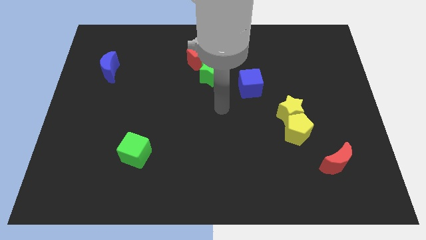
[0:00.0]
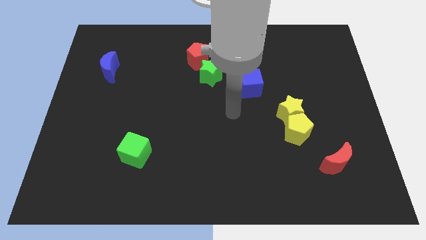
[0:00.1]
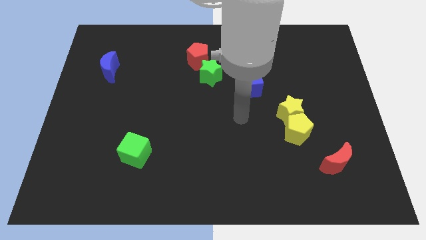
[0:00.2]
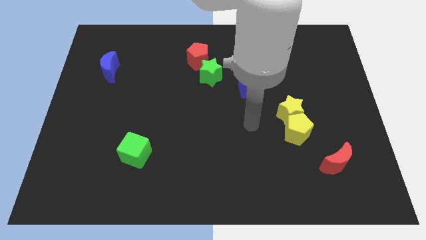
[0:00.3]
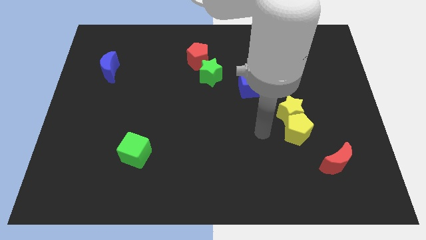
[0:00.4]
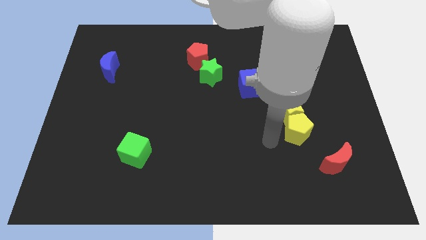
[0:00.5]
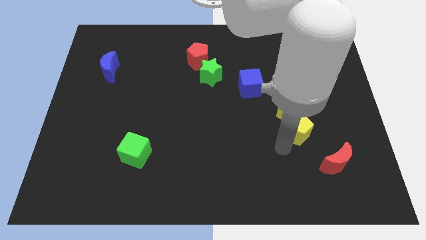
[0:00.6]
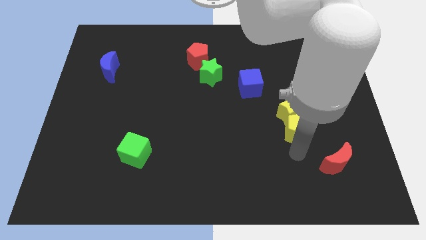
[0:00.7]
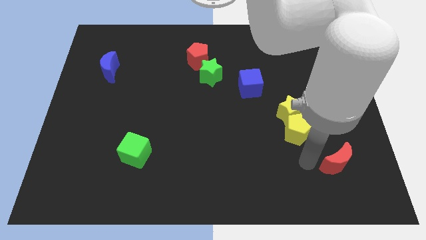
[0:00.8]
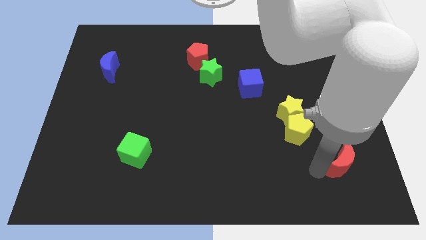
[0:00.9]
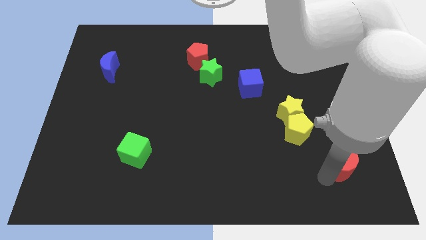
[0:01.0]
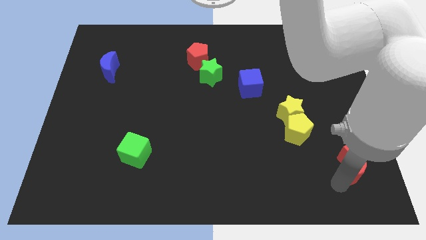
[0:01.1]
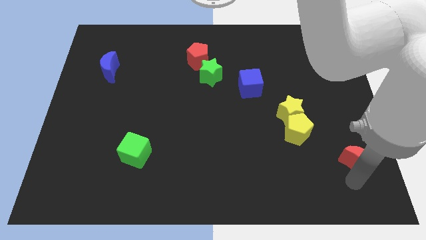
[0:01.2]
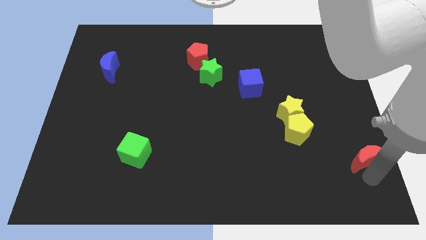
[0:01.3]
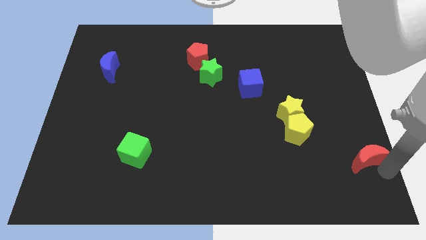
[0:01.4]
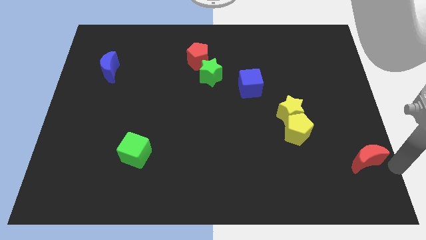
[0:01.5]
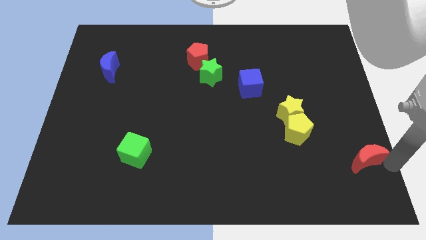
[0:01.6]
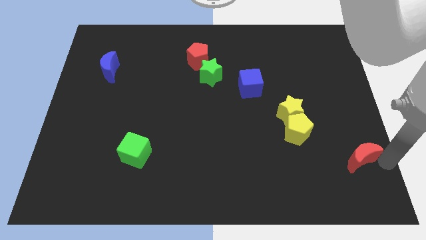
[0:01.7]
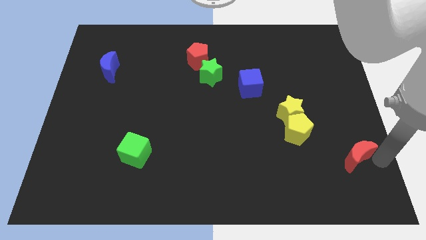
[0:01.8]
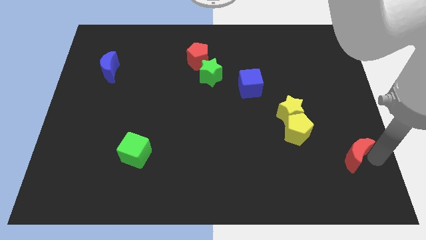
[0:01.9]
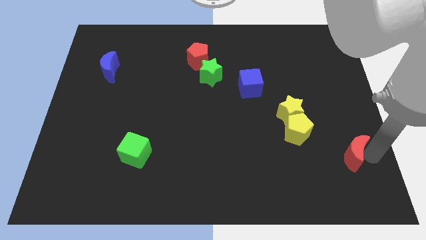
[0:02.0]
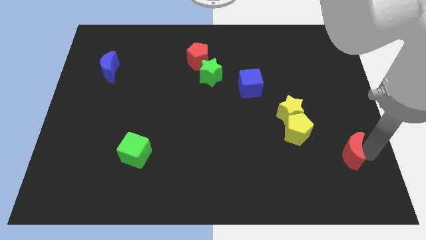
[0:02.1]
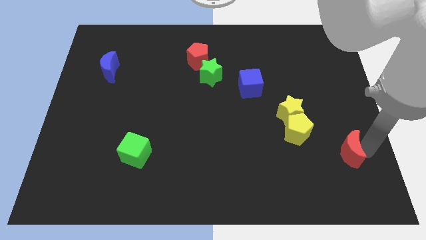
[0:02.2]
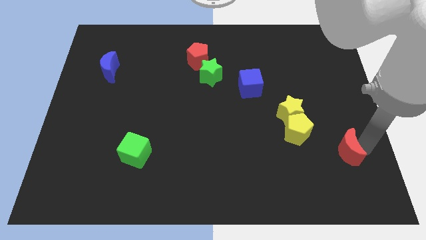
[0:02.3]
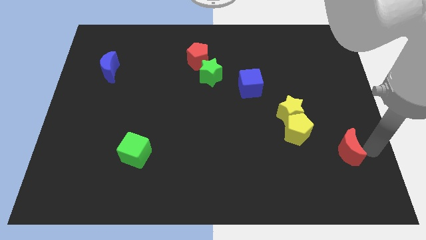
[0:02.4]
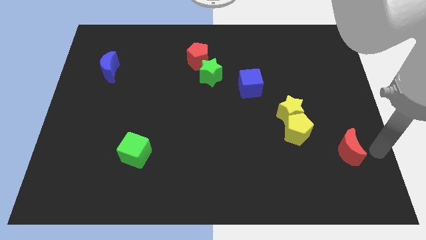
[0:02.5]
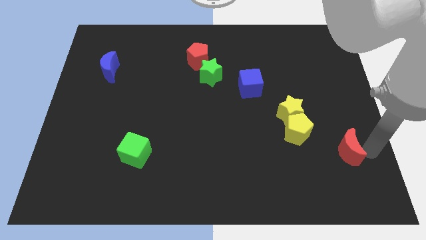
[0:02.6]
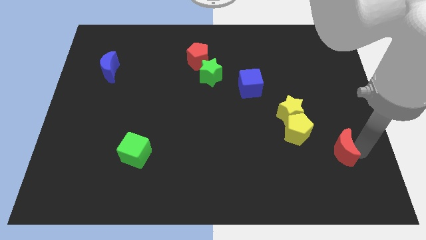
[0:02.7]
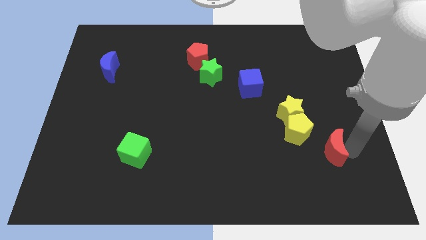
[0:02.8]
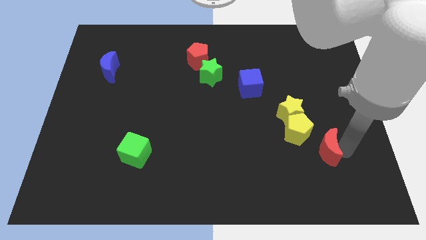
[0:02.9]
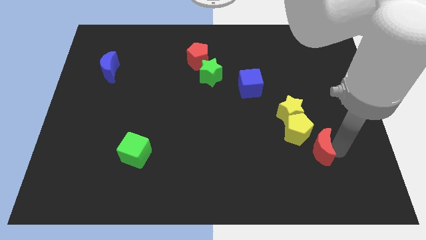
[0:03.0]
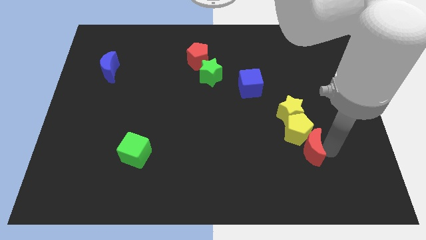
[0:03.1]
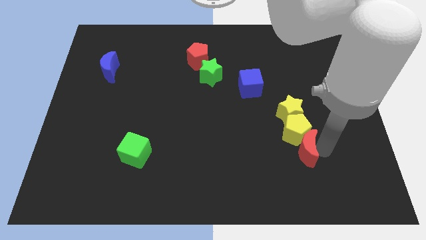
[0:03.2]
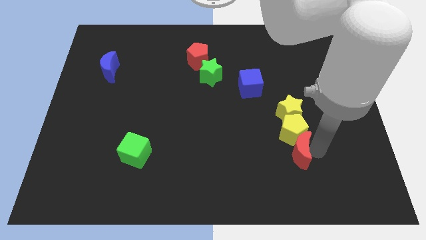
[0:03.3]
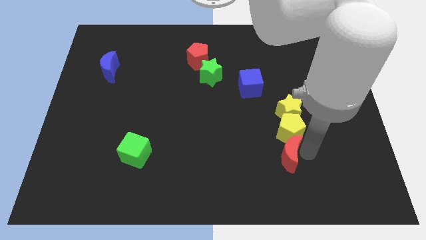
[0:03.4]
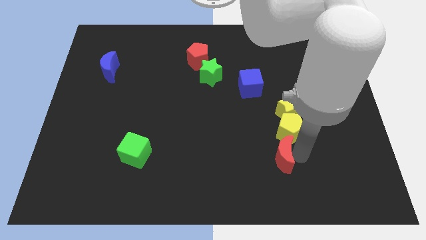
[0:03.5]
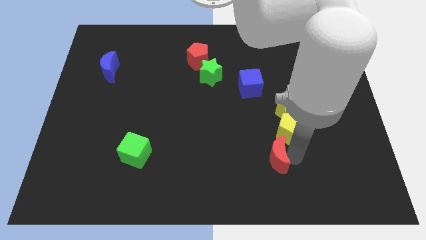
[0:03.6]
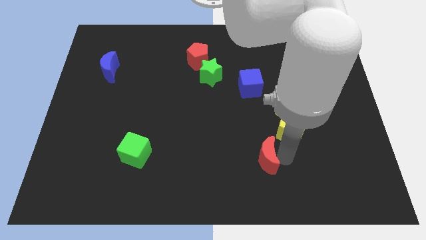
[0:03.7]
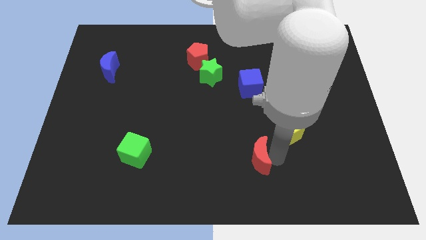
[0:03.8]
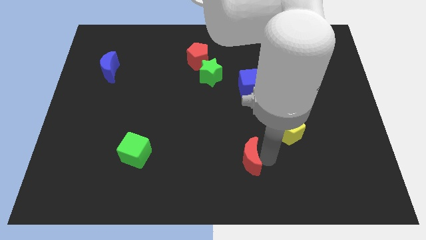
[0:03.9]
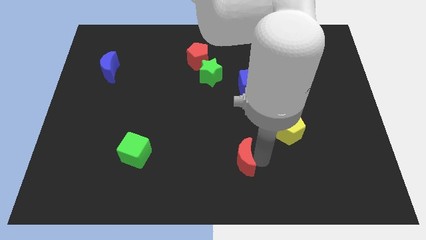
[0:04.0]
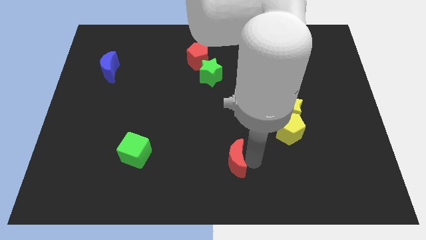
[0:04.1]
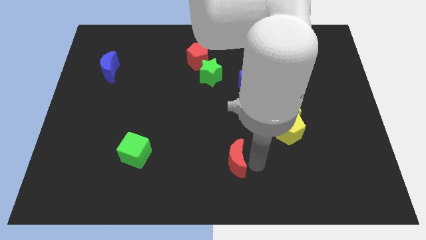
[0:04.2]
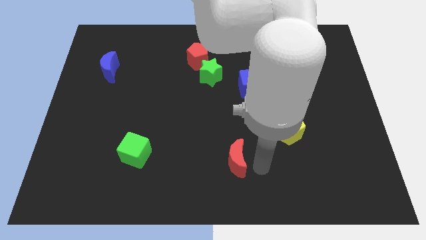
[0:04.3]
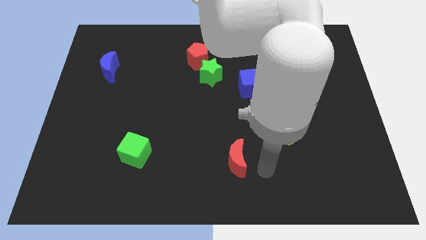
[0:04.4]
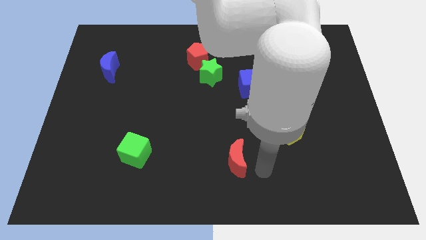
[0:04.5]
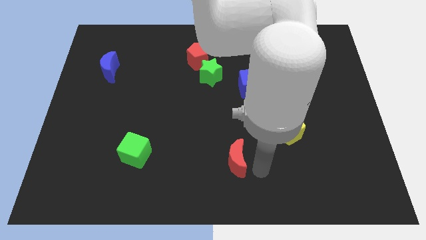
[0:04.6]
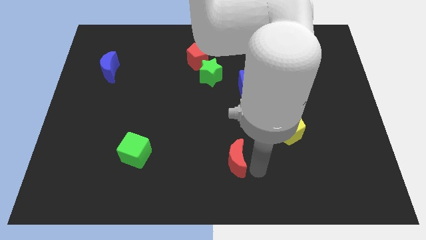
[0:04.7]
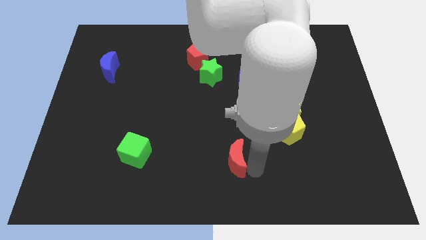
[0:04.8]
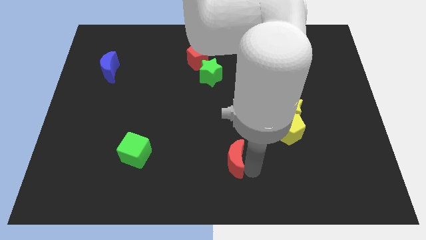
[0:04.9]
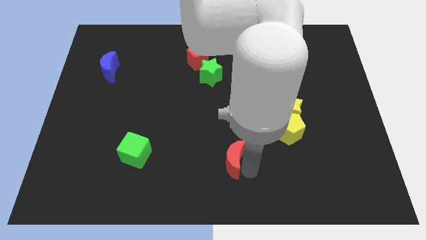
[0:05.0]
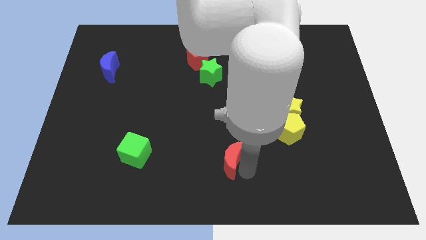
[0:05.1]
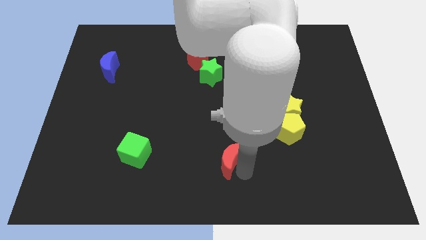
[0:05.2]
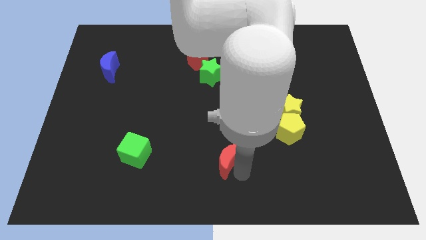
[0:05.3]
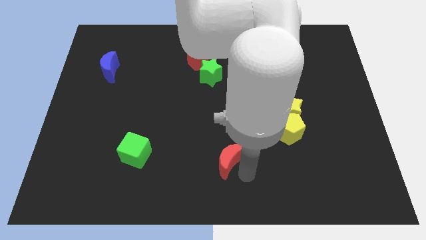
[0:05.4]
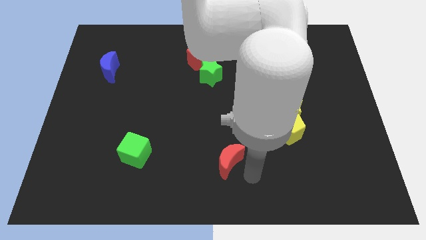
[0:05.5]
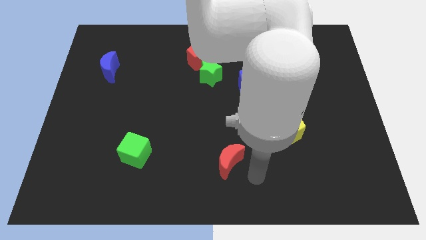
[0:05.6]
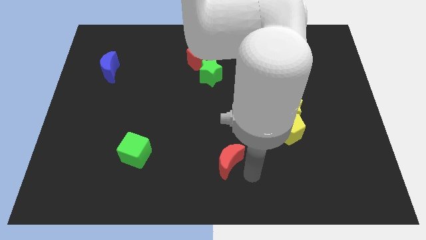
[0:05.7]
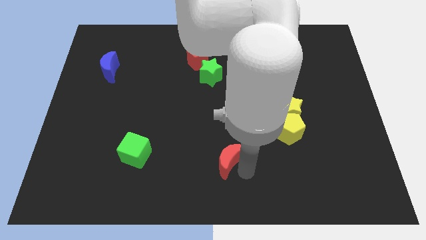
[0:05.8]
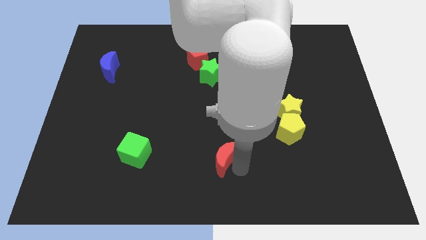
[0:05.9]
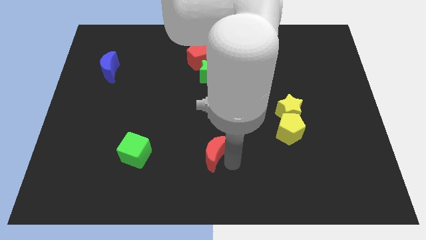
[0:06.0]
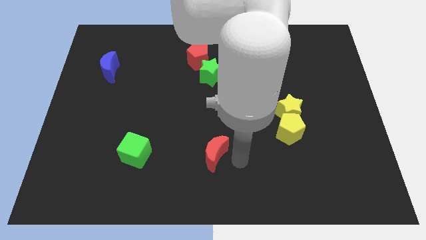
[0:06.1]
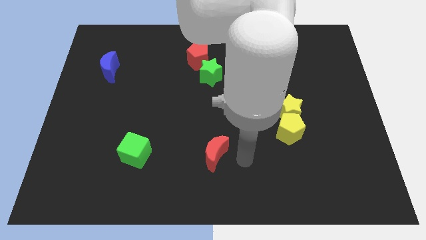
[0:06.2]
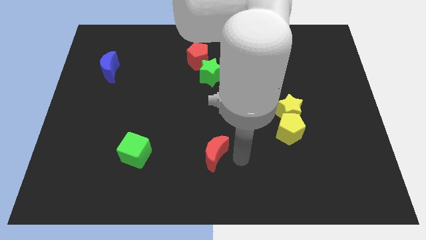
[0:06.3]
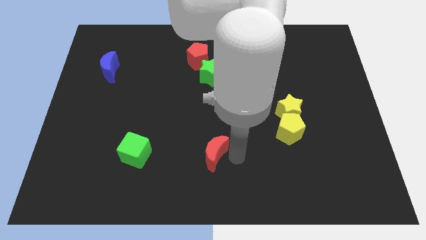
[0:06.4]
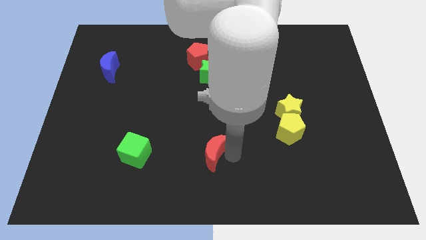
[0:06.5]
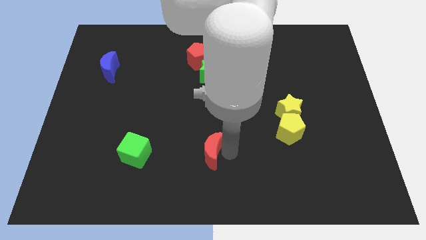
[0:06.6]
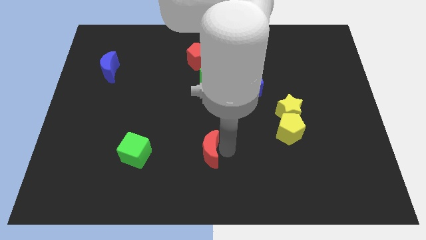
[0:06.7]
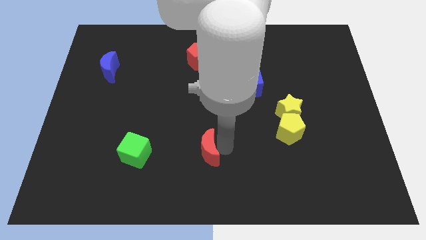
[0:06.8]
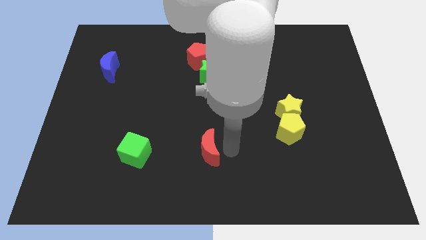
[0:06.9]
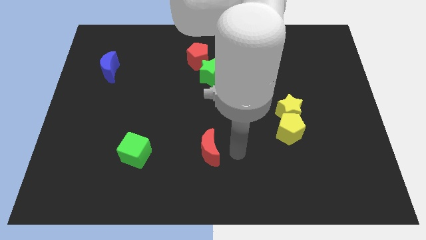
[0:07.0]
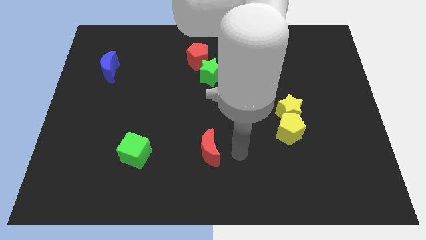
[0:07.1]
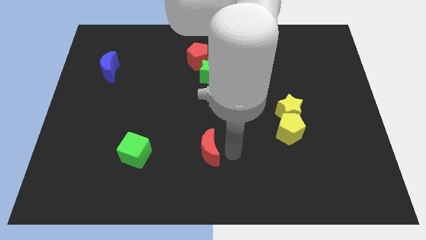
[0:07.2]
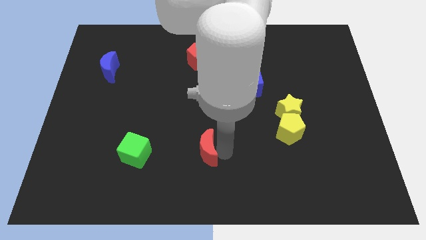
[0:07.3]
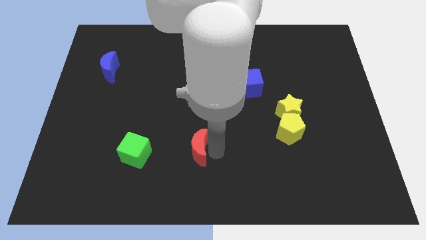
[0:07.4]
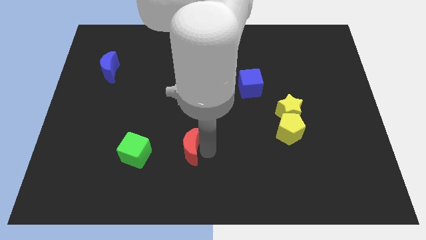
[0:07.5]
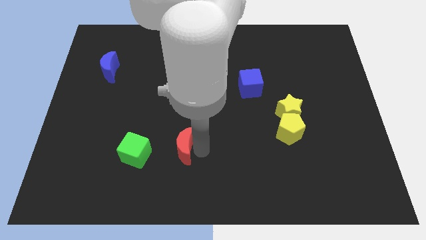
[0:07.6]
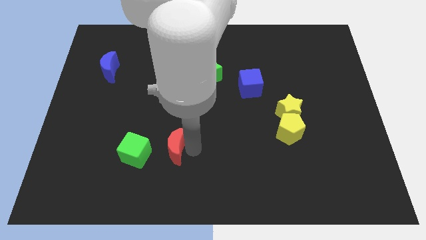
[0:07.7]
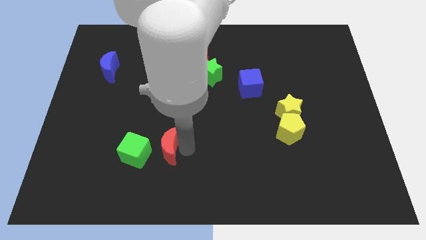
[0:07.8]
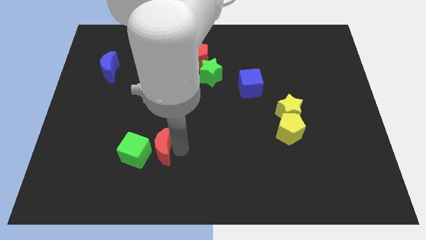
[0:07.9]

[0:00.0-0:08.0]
slide the red moon close to the green cube
